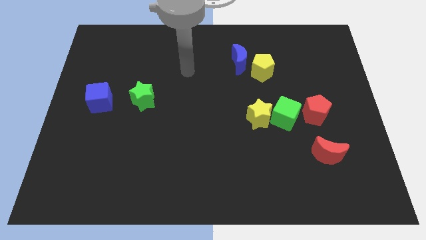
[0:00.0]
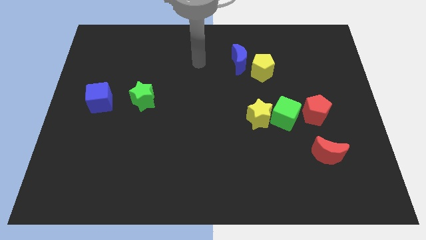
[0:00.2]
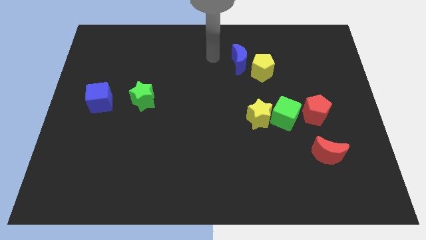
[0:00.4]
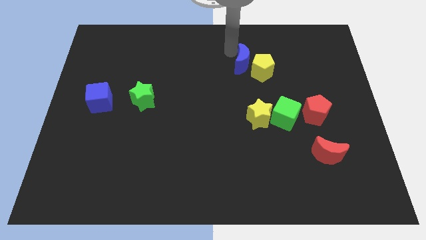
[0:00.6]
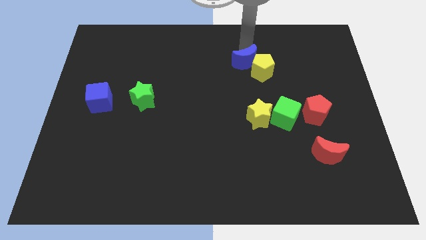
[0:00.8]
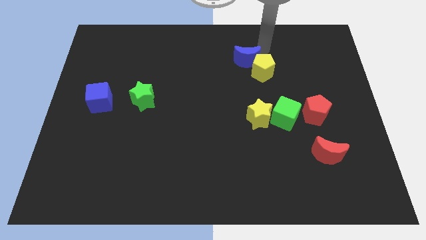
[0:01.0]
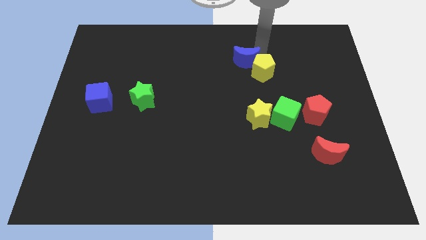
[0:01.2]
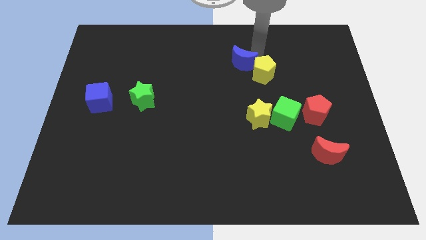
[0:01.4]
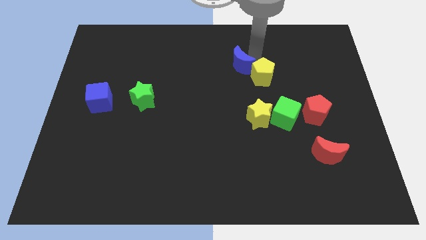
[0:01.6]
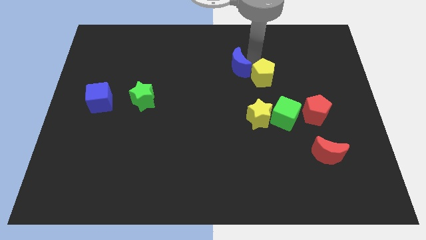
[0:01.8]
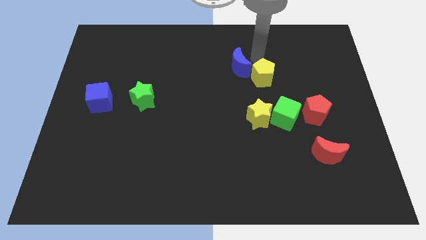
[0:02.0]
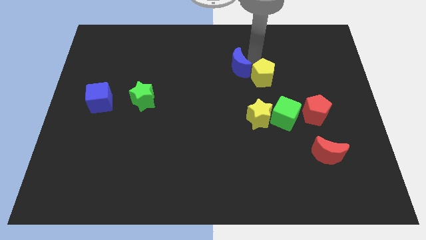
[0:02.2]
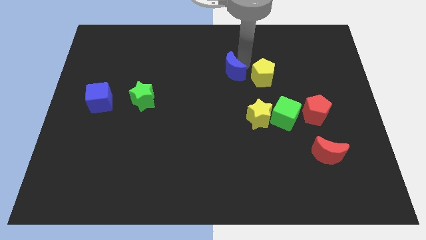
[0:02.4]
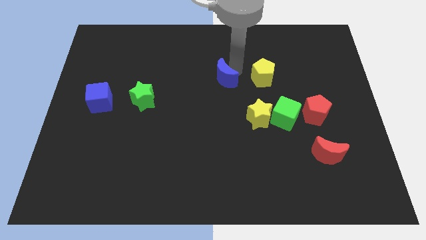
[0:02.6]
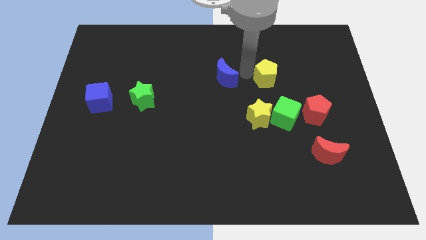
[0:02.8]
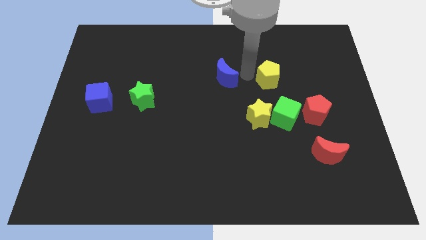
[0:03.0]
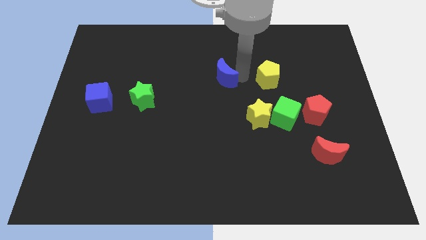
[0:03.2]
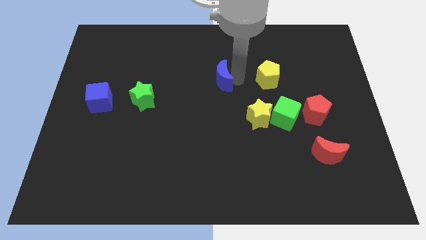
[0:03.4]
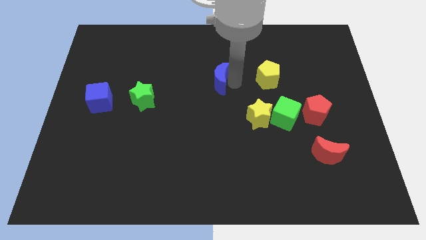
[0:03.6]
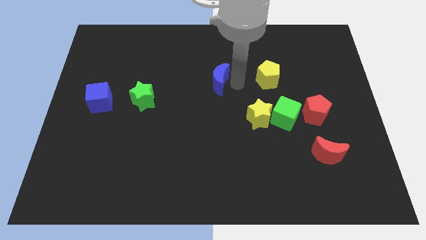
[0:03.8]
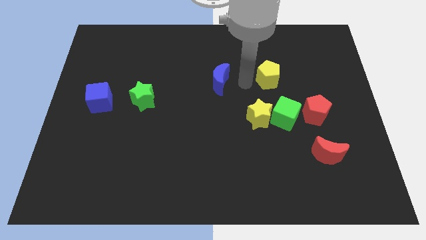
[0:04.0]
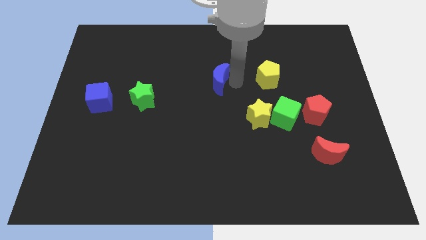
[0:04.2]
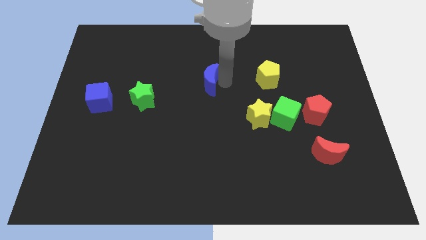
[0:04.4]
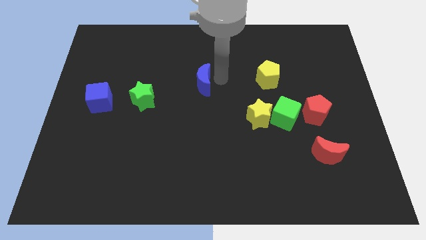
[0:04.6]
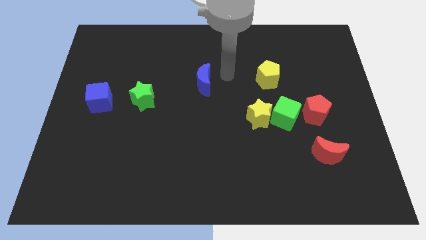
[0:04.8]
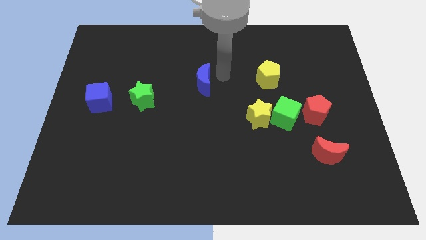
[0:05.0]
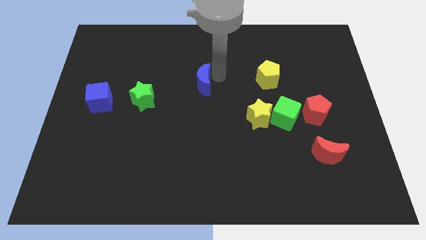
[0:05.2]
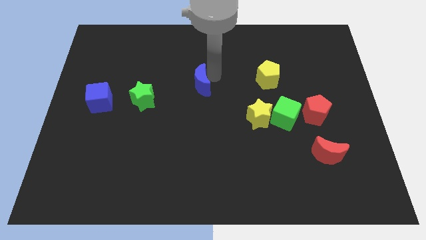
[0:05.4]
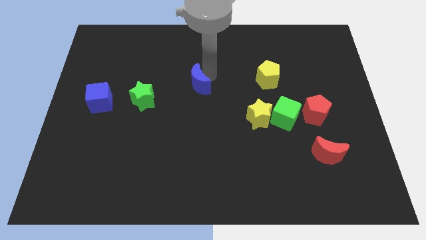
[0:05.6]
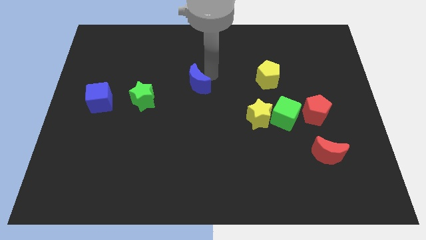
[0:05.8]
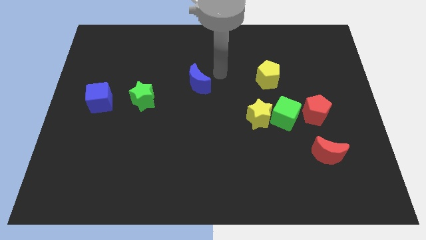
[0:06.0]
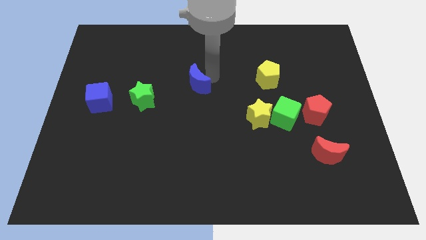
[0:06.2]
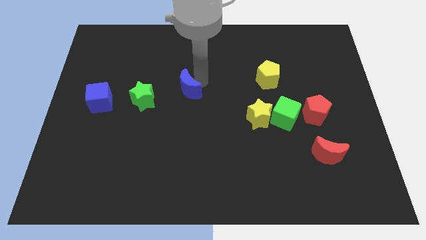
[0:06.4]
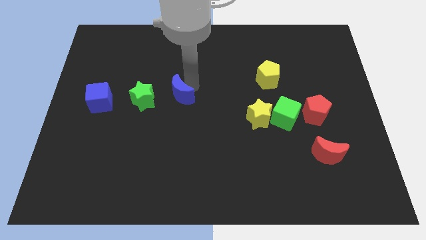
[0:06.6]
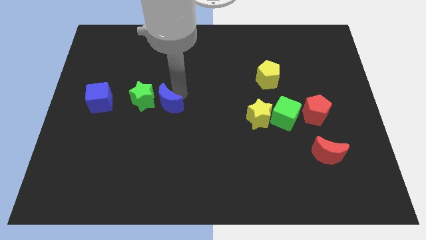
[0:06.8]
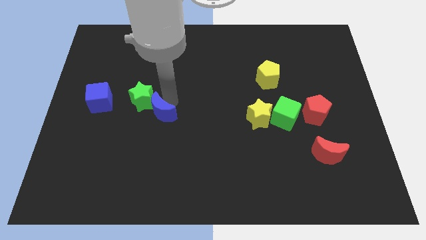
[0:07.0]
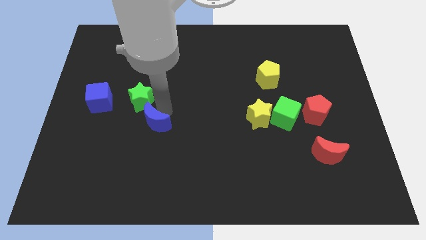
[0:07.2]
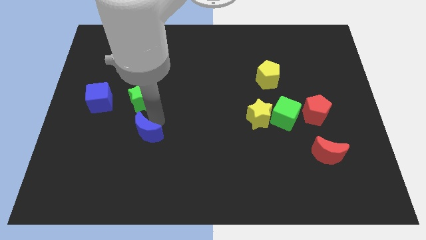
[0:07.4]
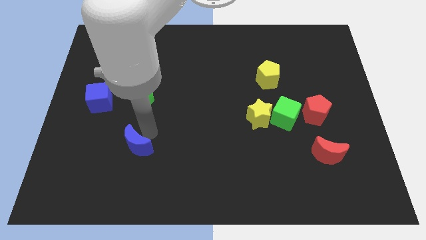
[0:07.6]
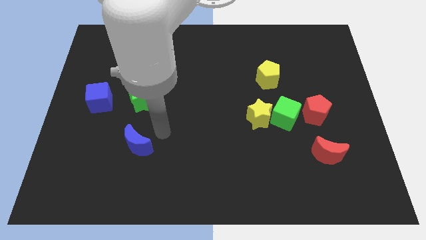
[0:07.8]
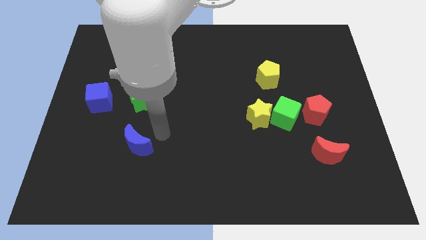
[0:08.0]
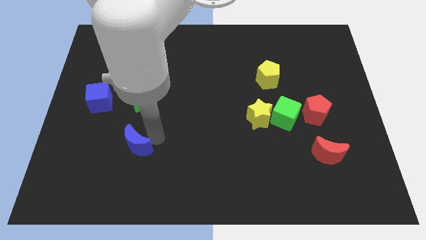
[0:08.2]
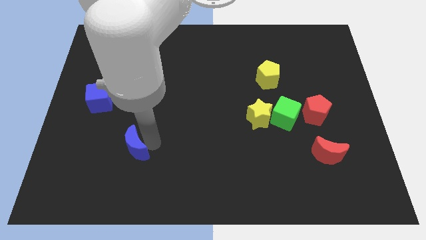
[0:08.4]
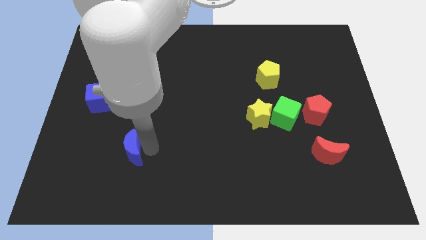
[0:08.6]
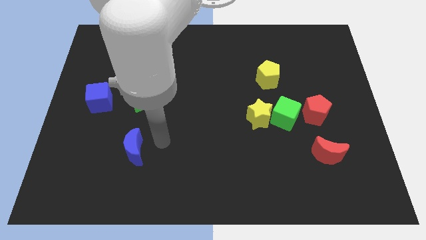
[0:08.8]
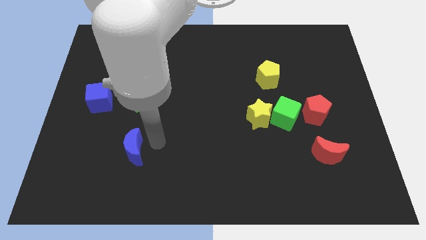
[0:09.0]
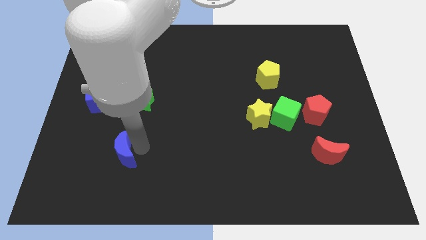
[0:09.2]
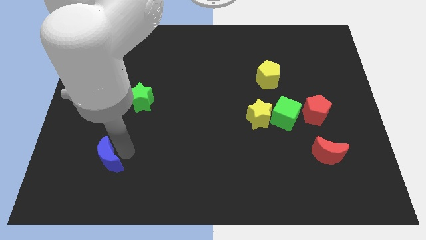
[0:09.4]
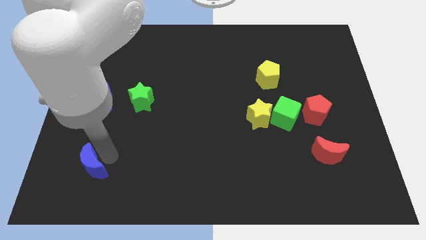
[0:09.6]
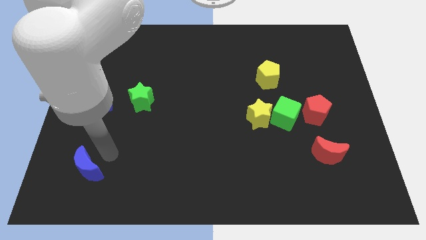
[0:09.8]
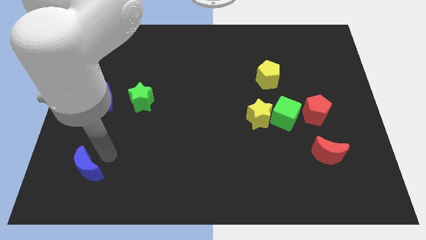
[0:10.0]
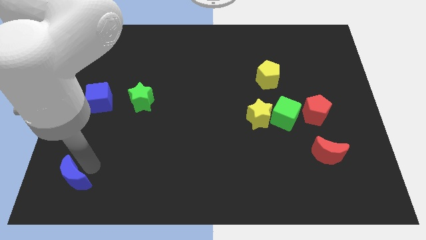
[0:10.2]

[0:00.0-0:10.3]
put the blue moon to the bottom left corner

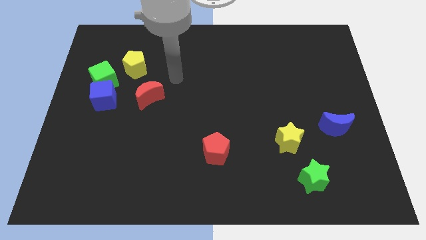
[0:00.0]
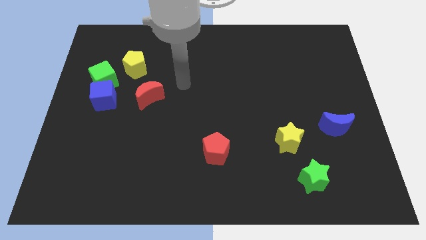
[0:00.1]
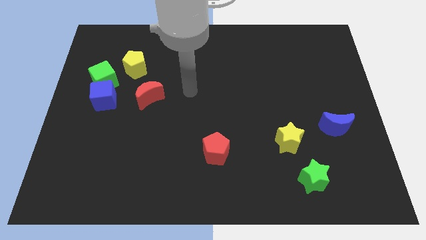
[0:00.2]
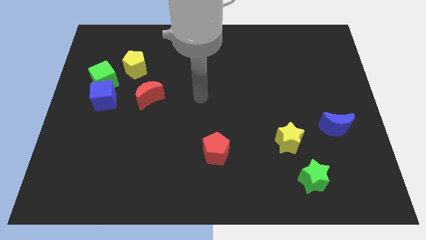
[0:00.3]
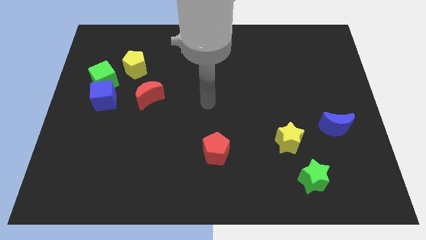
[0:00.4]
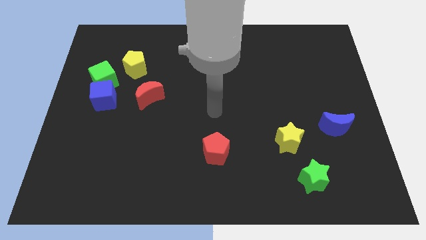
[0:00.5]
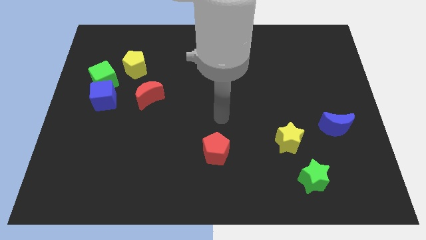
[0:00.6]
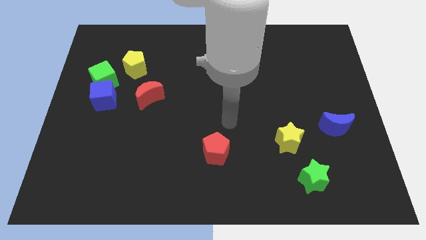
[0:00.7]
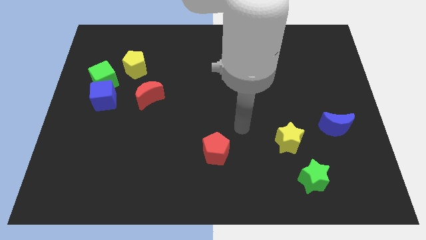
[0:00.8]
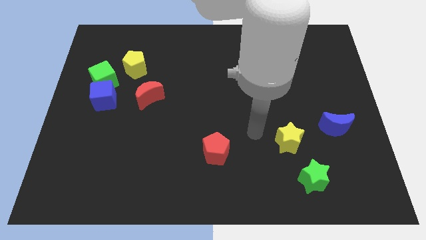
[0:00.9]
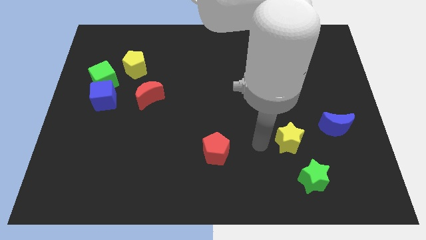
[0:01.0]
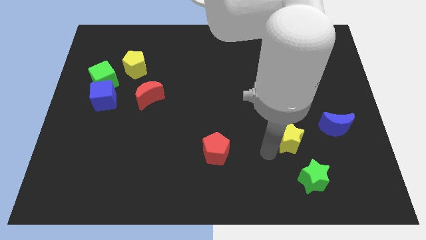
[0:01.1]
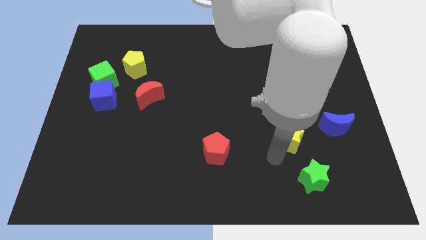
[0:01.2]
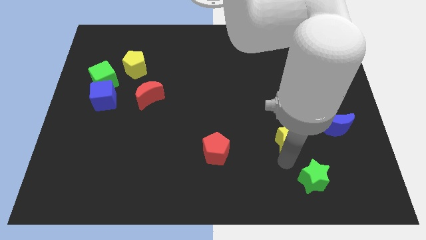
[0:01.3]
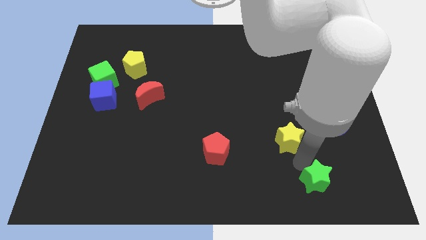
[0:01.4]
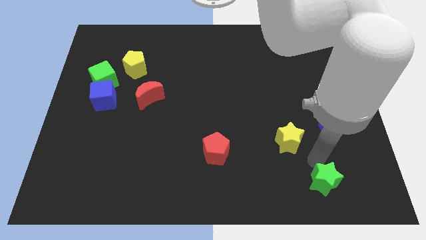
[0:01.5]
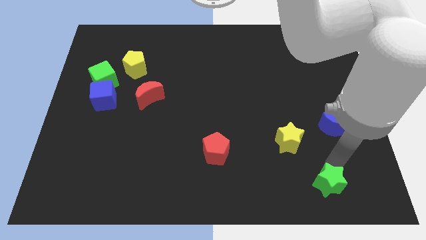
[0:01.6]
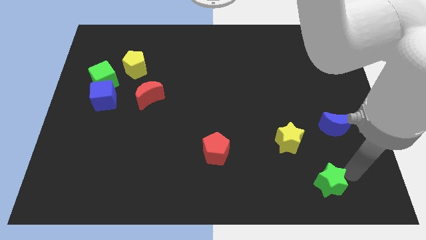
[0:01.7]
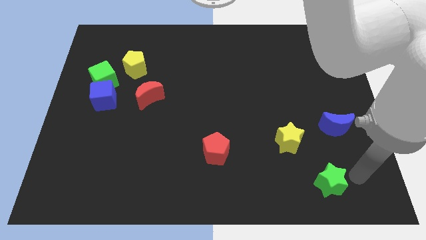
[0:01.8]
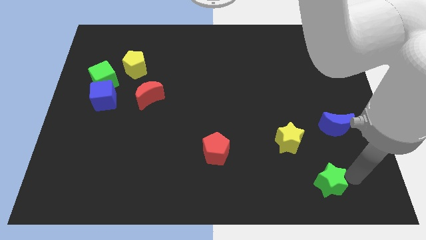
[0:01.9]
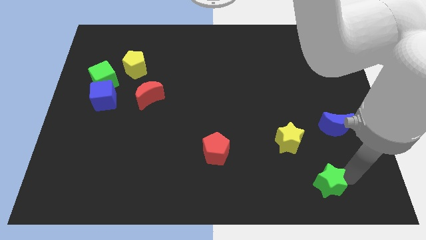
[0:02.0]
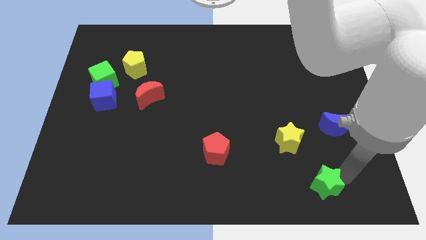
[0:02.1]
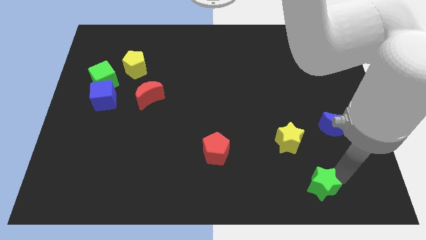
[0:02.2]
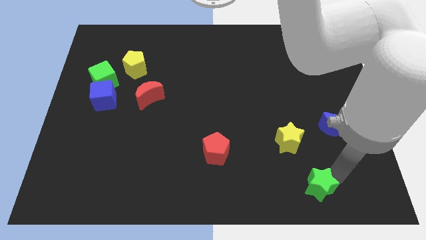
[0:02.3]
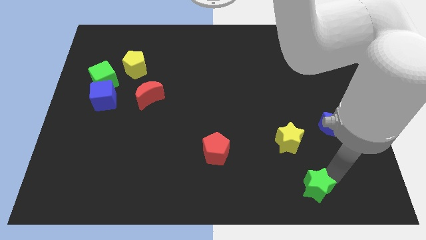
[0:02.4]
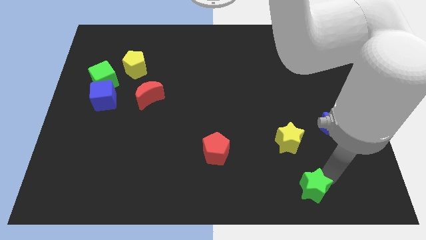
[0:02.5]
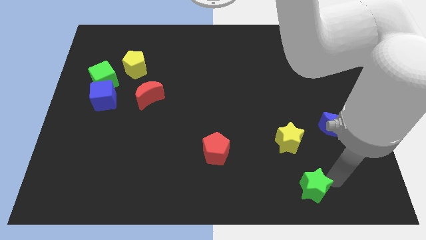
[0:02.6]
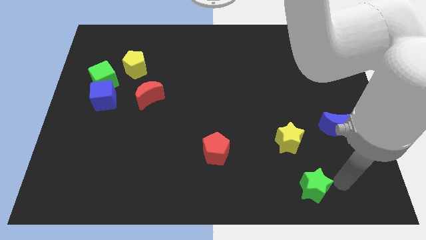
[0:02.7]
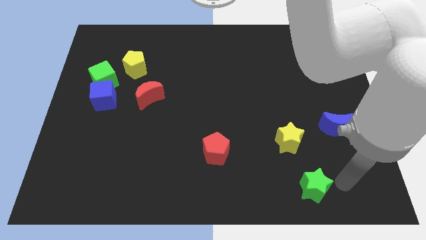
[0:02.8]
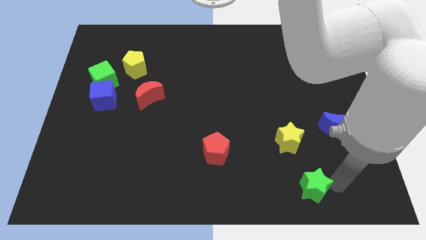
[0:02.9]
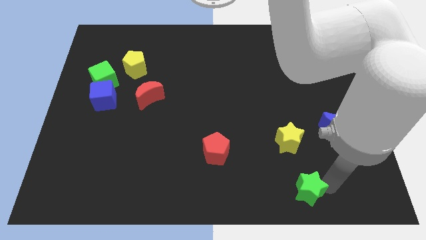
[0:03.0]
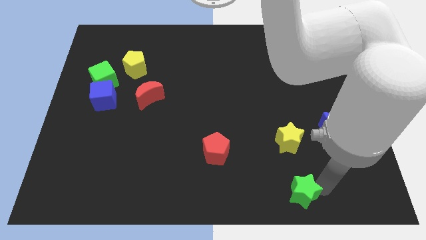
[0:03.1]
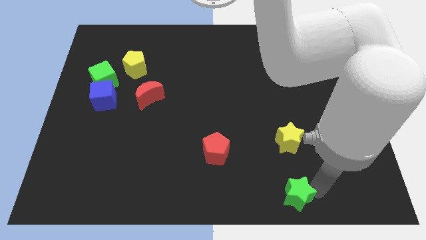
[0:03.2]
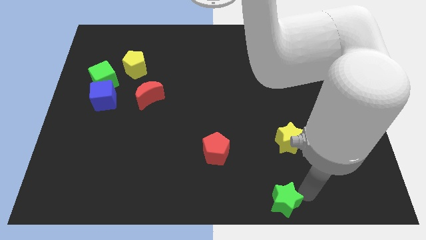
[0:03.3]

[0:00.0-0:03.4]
push the green star to the bottom
